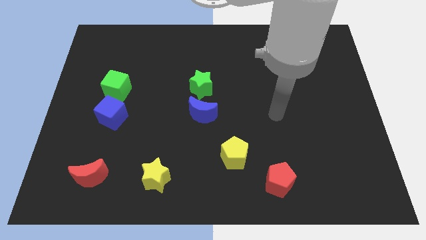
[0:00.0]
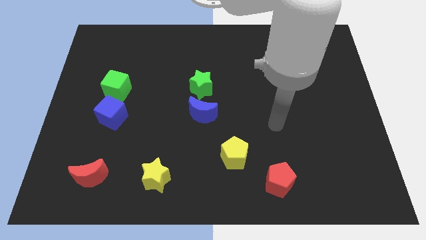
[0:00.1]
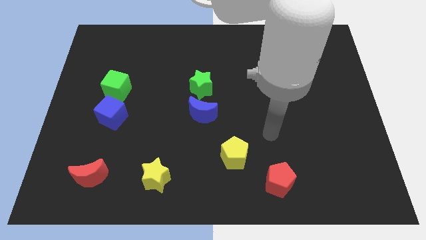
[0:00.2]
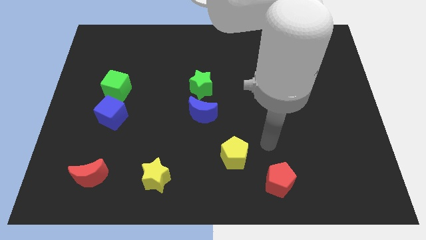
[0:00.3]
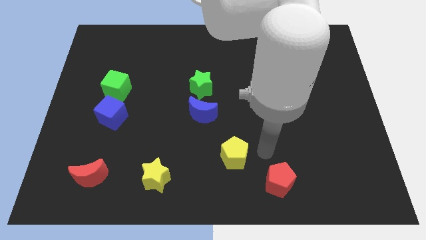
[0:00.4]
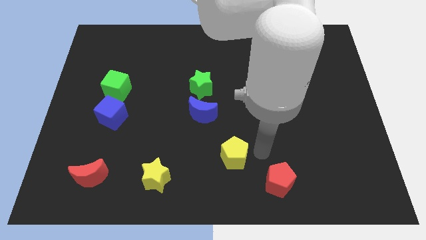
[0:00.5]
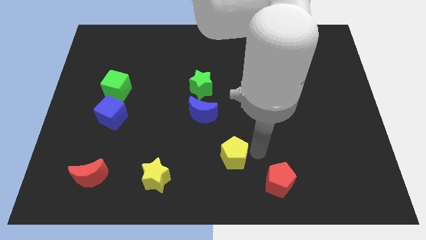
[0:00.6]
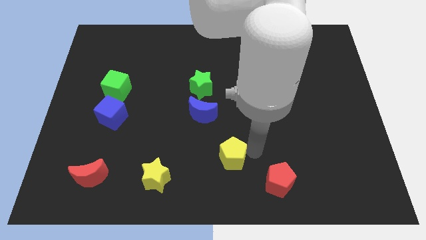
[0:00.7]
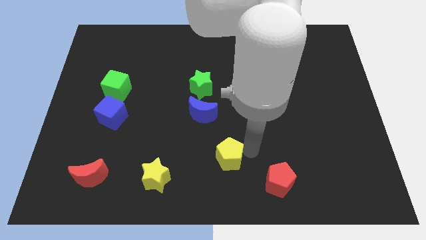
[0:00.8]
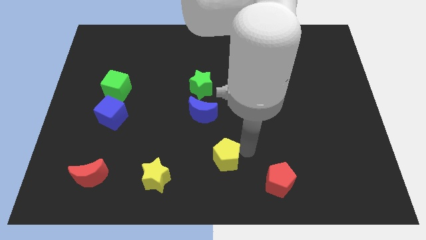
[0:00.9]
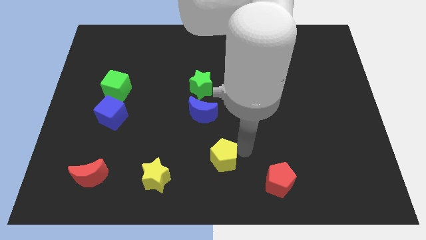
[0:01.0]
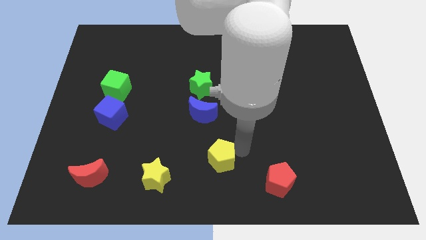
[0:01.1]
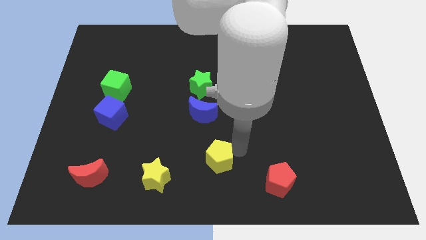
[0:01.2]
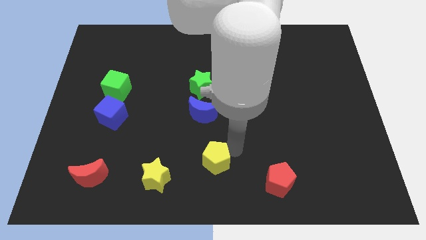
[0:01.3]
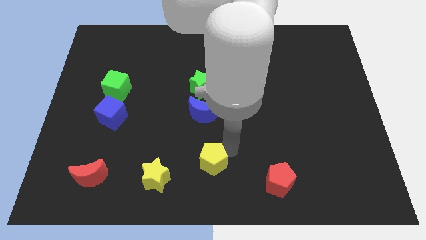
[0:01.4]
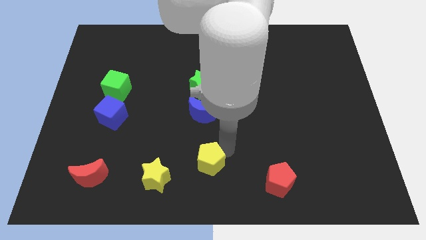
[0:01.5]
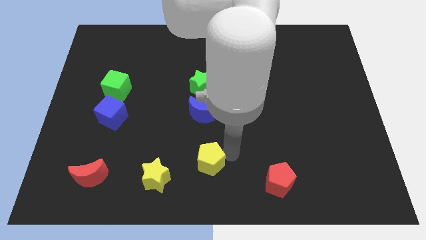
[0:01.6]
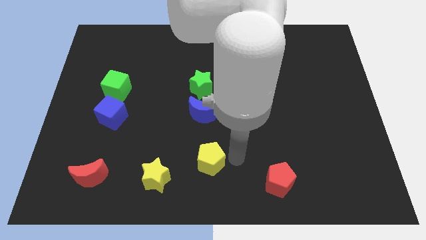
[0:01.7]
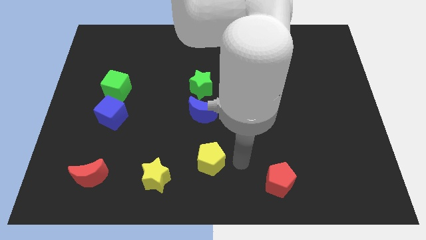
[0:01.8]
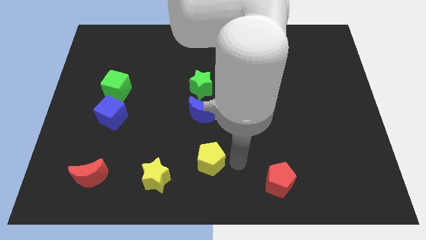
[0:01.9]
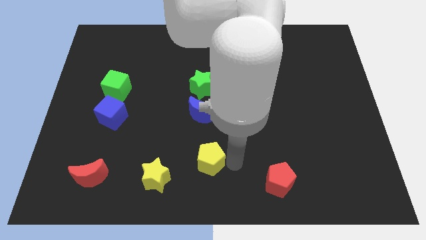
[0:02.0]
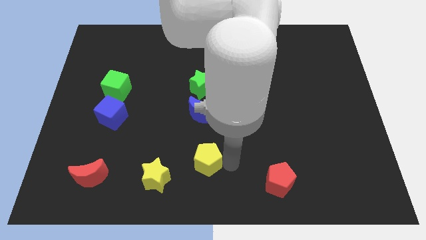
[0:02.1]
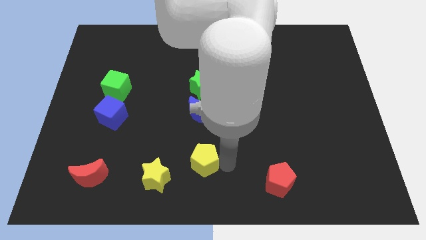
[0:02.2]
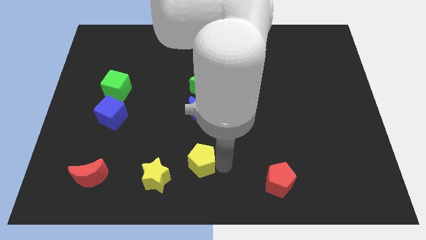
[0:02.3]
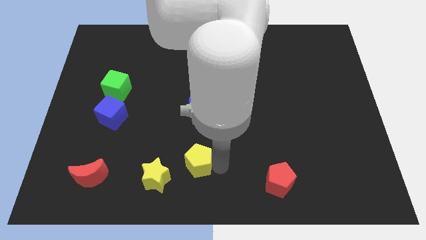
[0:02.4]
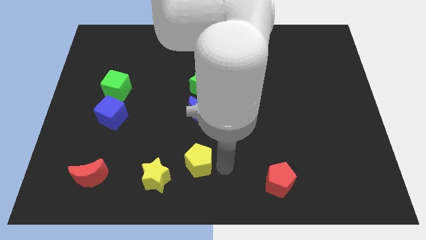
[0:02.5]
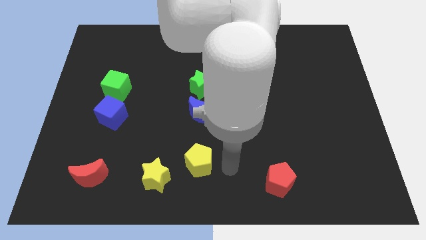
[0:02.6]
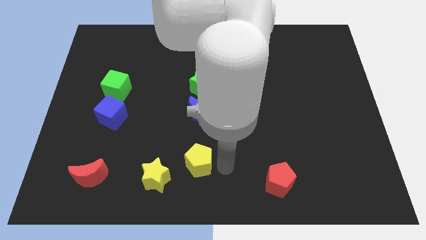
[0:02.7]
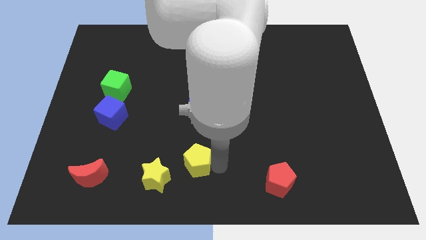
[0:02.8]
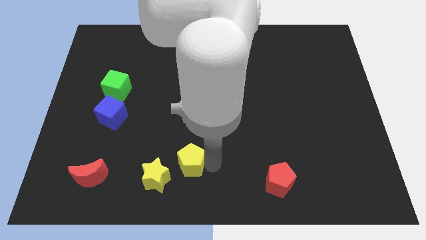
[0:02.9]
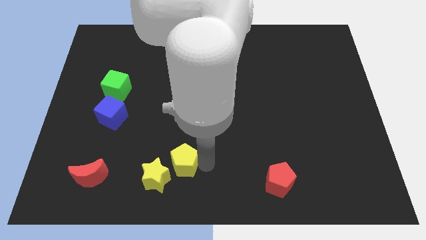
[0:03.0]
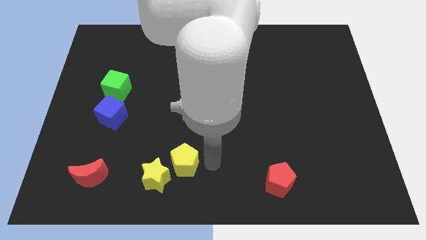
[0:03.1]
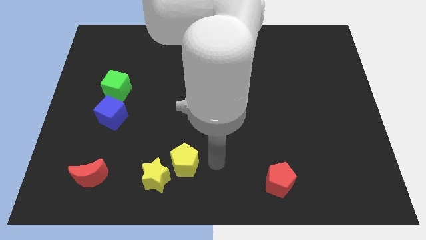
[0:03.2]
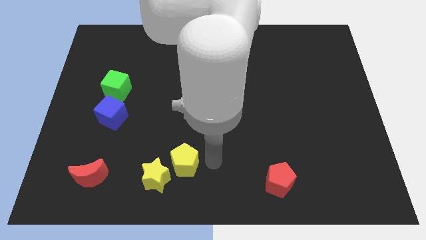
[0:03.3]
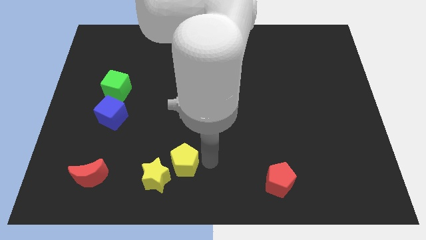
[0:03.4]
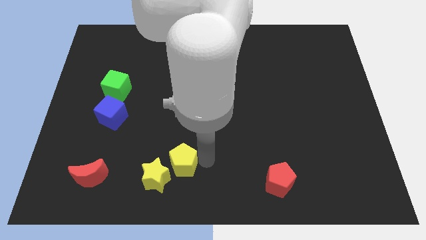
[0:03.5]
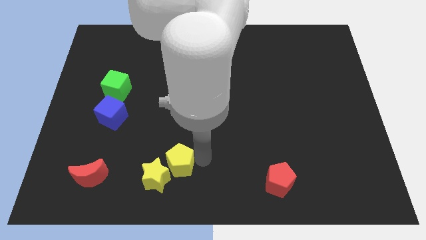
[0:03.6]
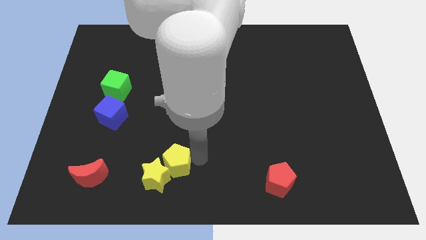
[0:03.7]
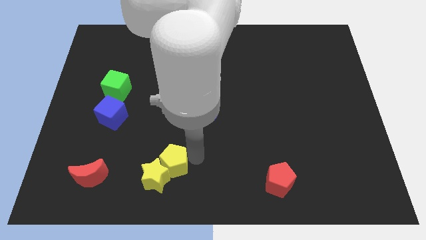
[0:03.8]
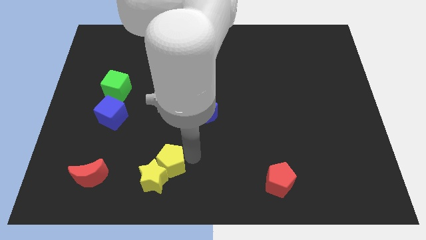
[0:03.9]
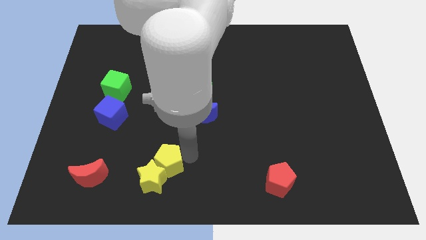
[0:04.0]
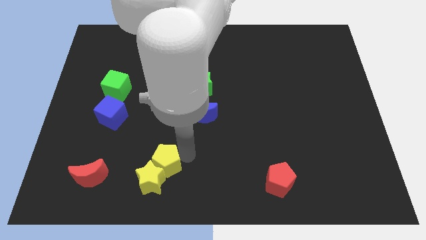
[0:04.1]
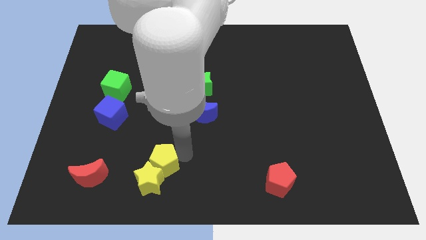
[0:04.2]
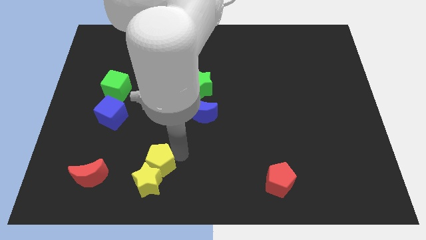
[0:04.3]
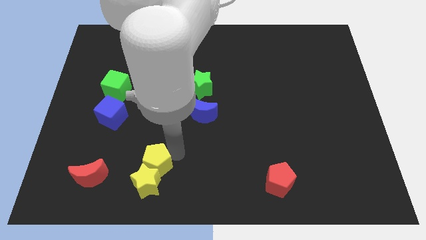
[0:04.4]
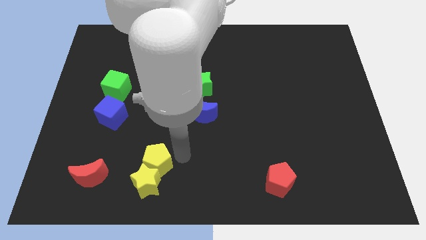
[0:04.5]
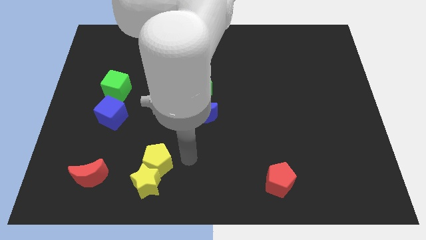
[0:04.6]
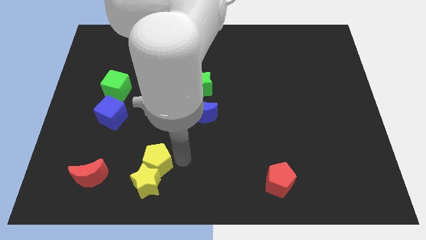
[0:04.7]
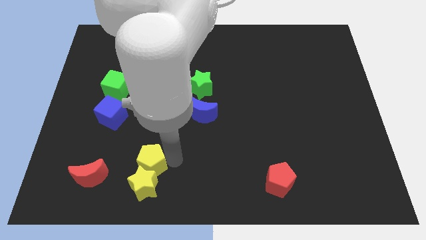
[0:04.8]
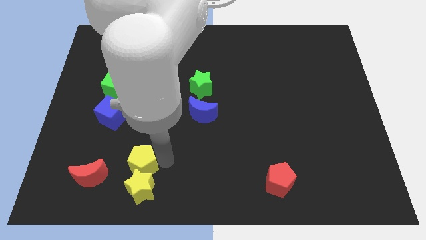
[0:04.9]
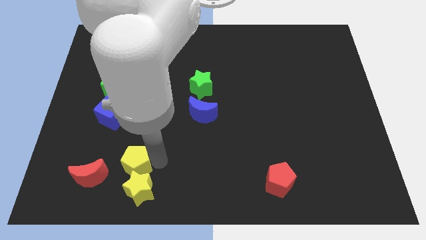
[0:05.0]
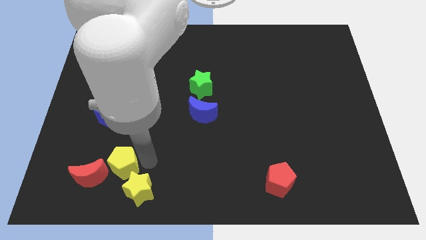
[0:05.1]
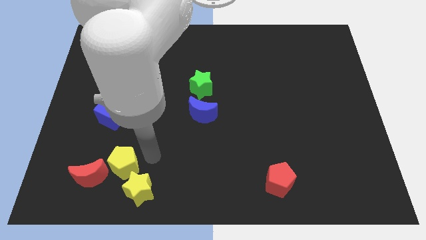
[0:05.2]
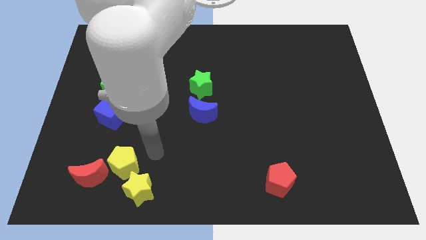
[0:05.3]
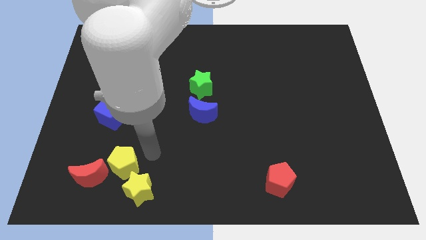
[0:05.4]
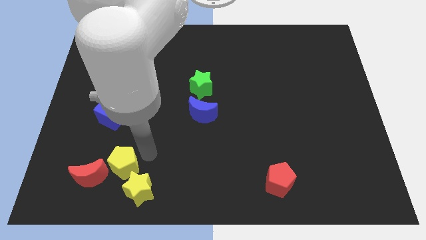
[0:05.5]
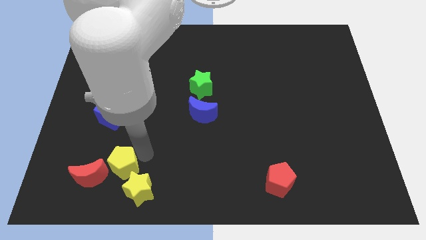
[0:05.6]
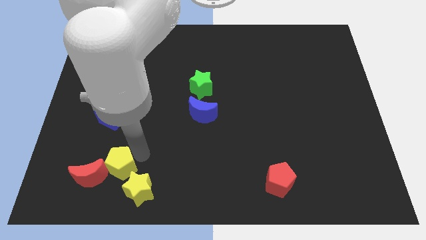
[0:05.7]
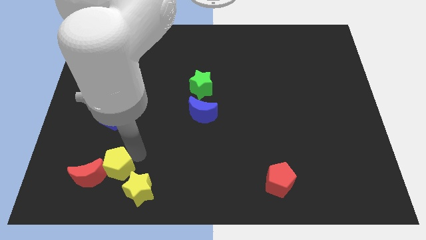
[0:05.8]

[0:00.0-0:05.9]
move the yellow pentagon to the red moon
